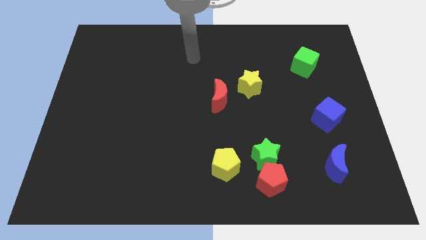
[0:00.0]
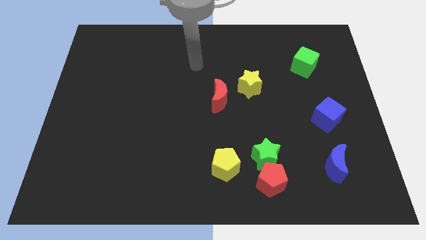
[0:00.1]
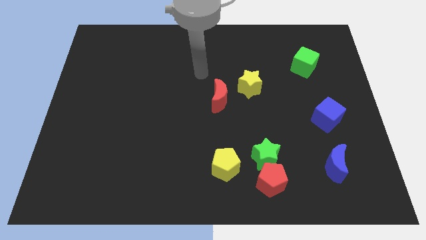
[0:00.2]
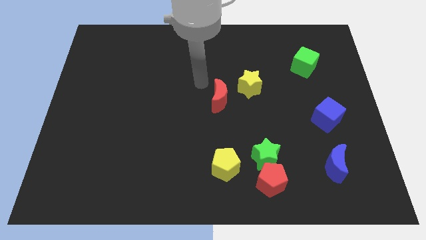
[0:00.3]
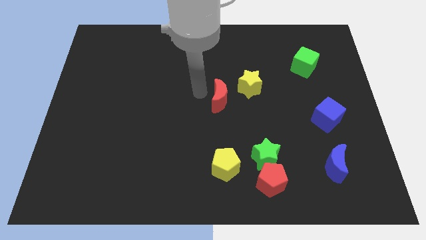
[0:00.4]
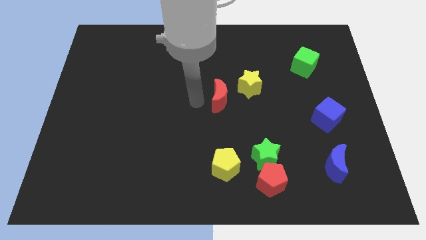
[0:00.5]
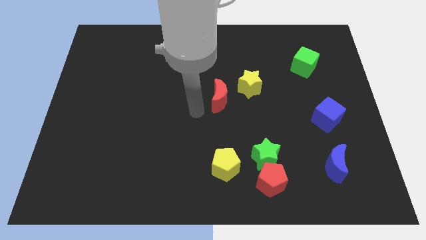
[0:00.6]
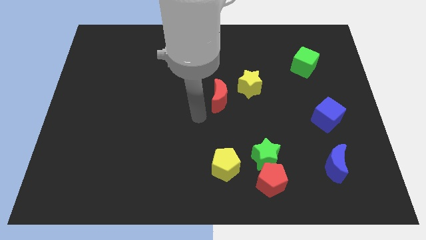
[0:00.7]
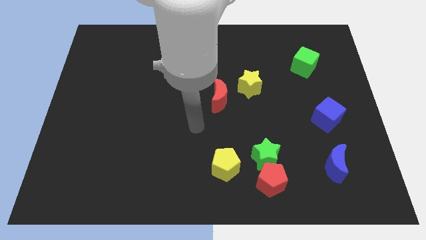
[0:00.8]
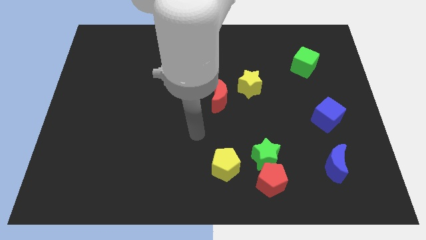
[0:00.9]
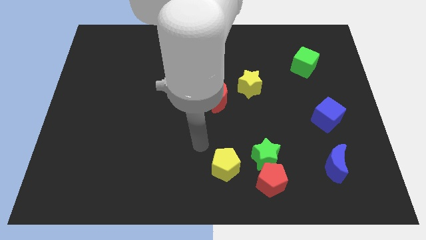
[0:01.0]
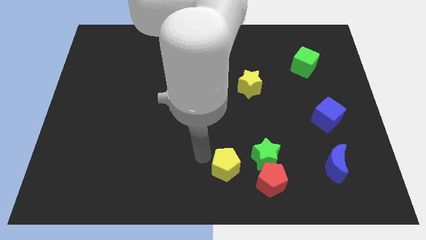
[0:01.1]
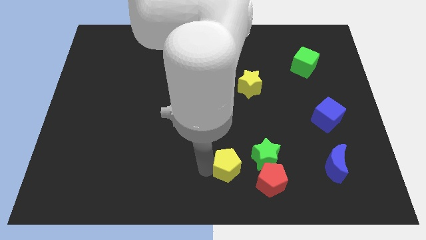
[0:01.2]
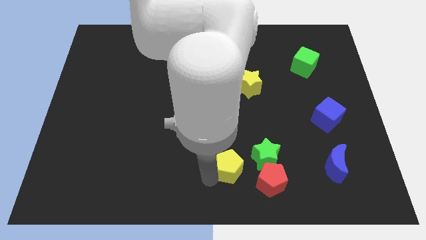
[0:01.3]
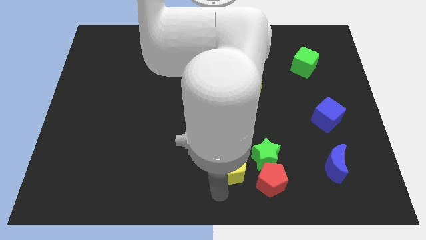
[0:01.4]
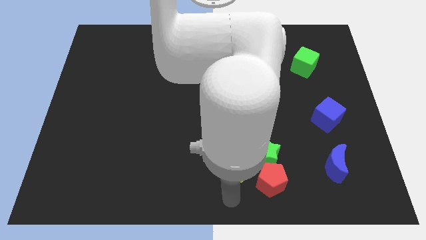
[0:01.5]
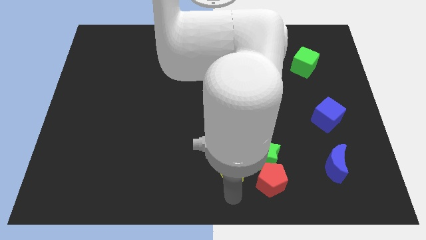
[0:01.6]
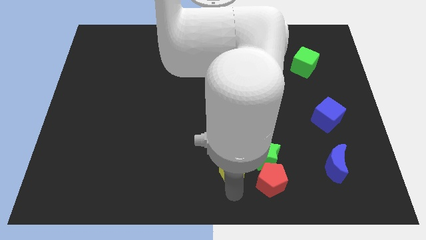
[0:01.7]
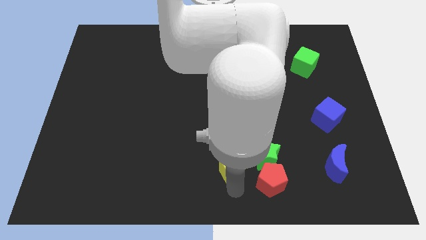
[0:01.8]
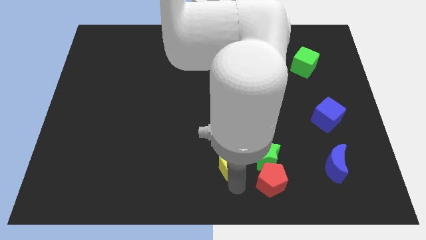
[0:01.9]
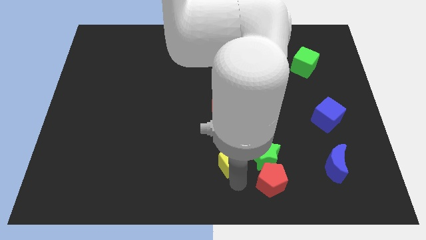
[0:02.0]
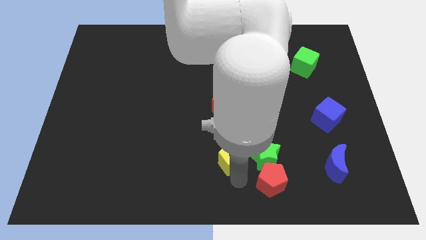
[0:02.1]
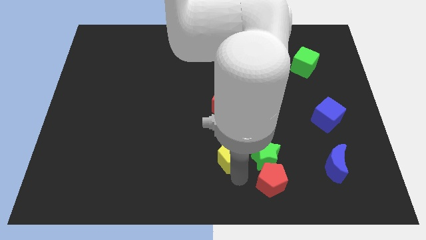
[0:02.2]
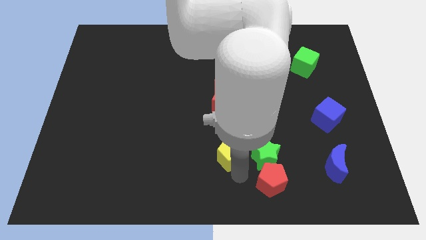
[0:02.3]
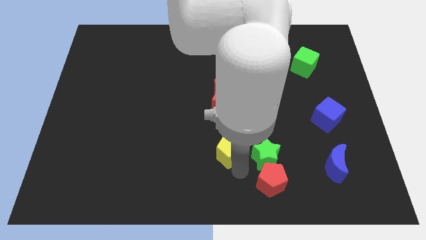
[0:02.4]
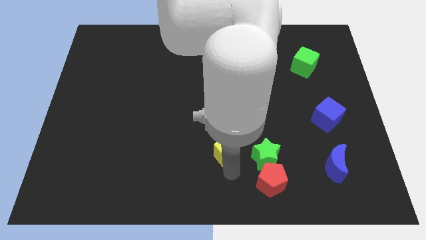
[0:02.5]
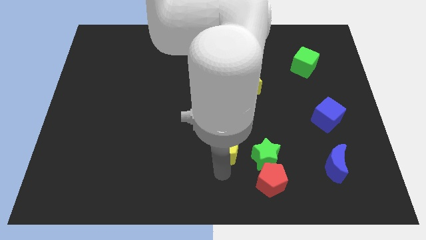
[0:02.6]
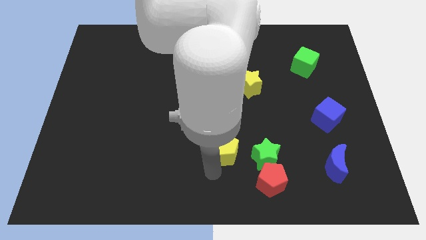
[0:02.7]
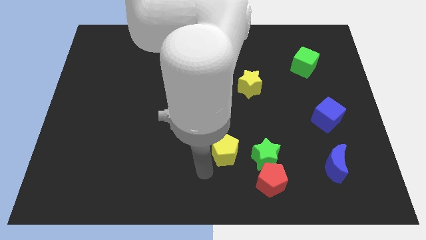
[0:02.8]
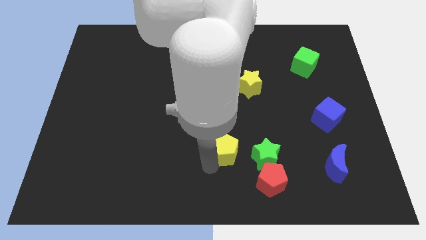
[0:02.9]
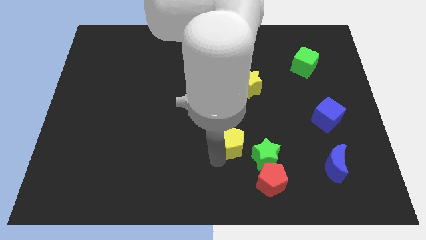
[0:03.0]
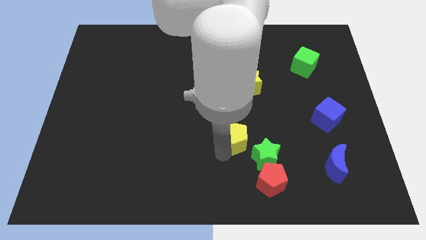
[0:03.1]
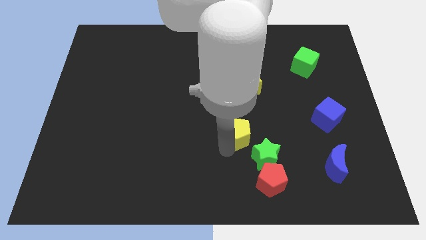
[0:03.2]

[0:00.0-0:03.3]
push the yellow pentagon diagonally up and to the right a little bit

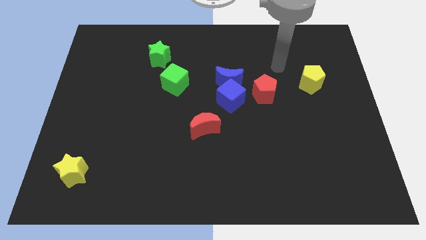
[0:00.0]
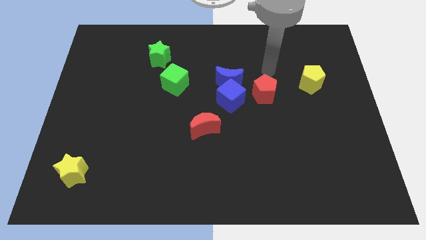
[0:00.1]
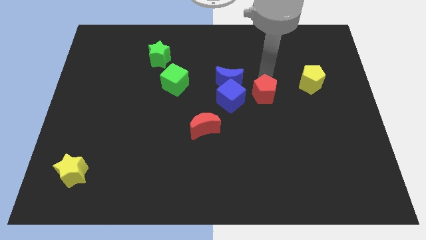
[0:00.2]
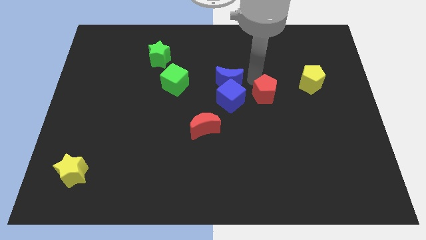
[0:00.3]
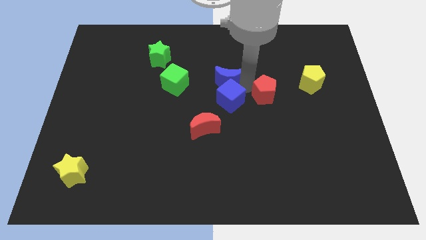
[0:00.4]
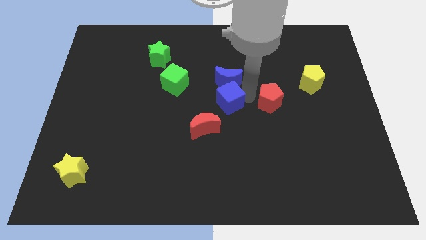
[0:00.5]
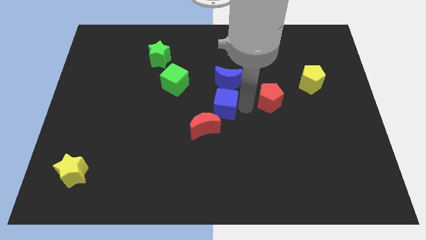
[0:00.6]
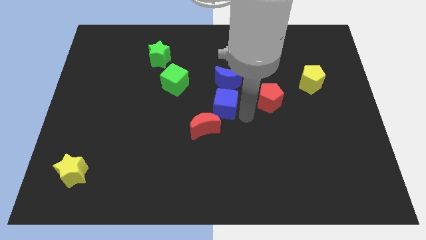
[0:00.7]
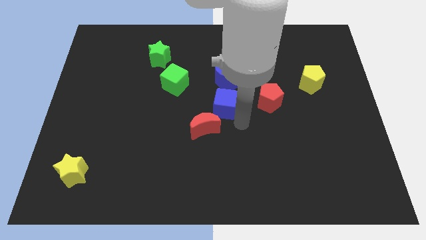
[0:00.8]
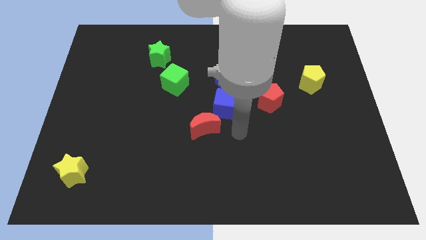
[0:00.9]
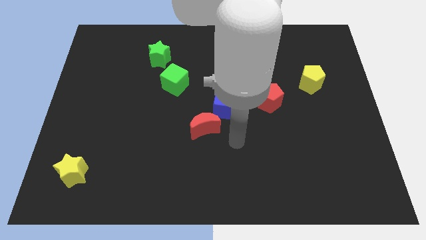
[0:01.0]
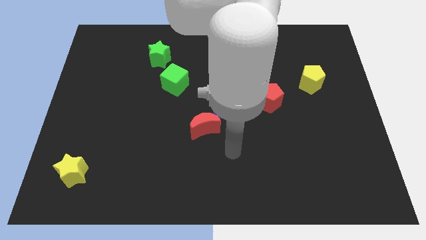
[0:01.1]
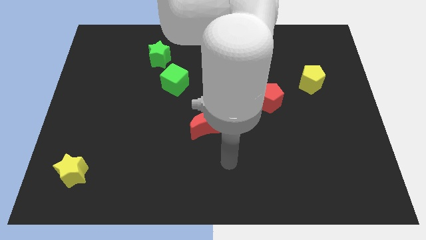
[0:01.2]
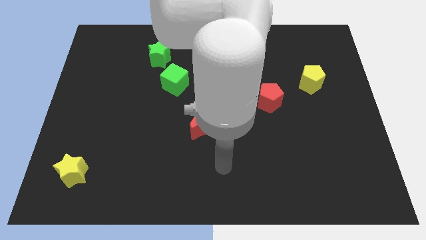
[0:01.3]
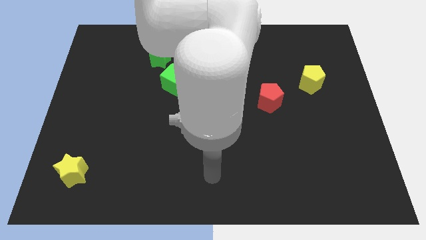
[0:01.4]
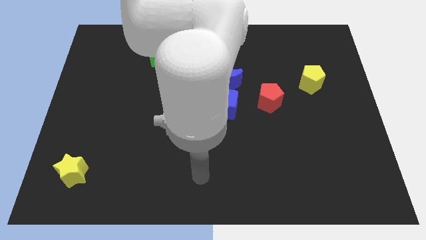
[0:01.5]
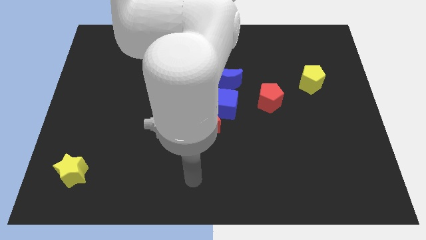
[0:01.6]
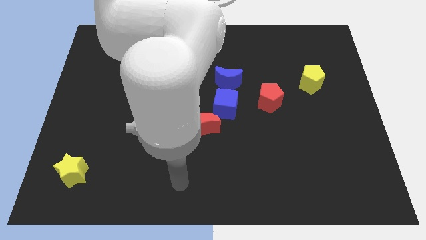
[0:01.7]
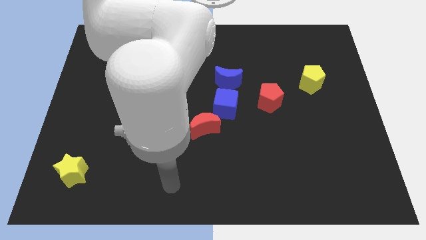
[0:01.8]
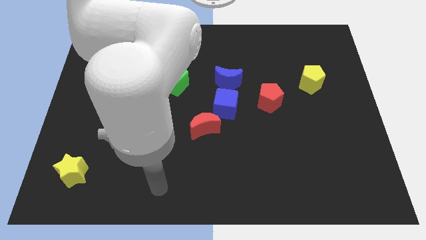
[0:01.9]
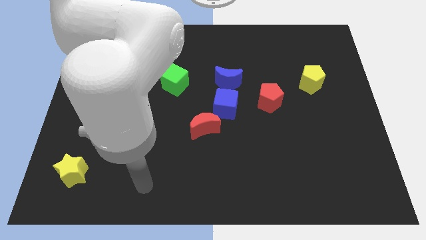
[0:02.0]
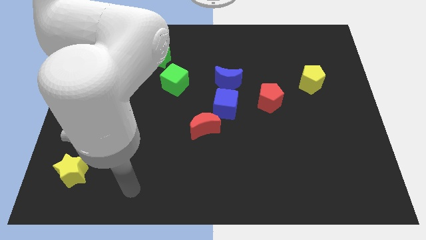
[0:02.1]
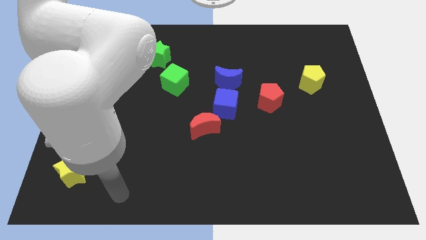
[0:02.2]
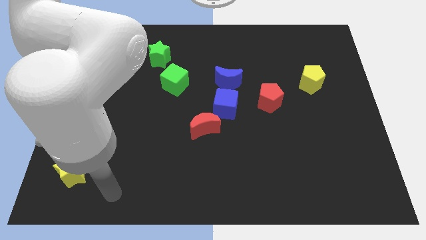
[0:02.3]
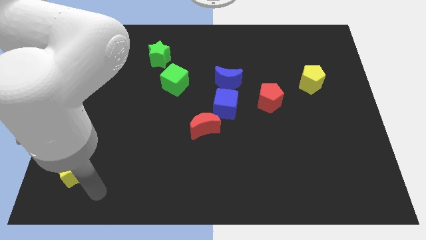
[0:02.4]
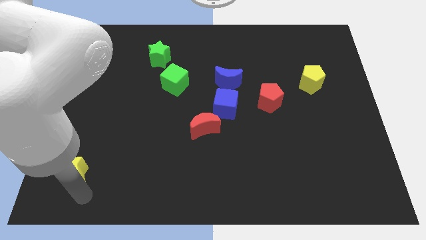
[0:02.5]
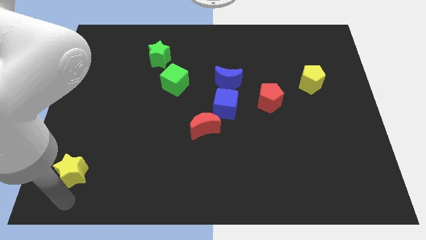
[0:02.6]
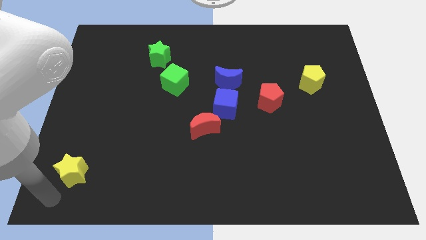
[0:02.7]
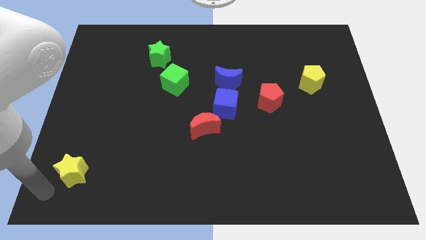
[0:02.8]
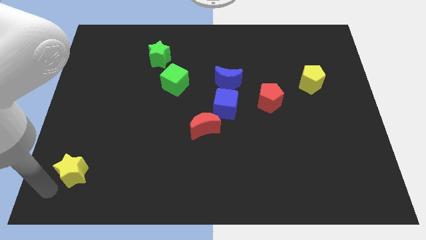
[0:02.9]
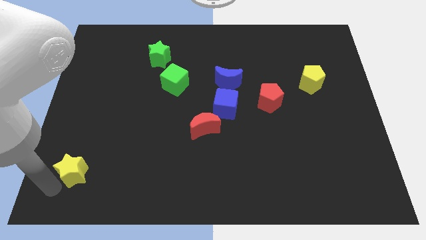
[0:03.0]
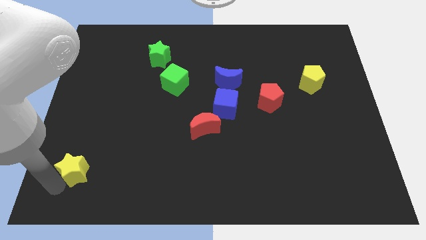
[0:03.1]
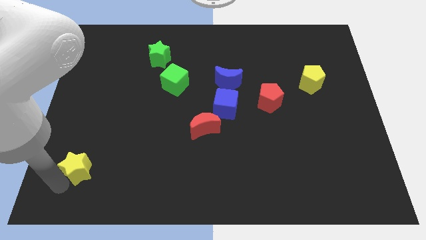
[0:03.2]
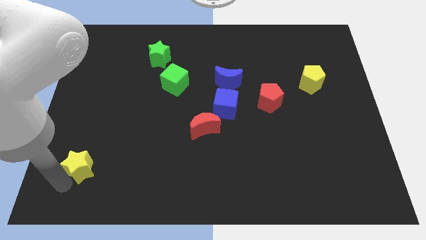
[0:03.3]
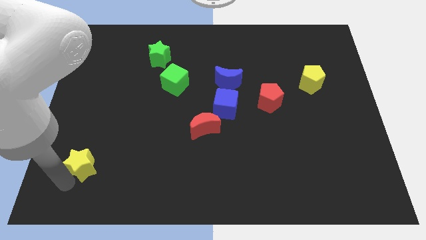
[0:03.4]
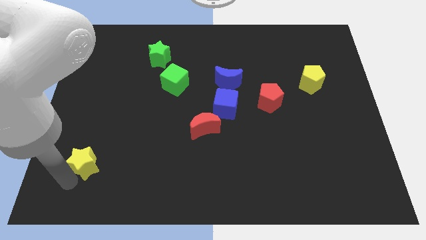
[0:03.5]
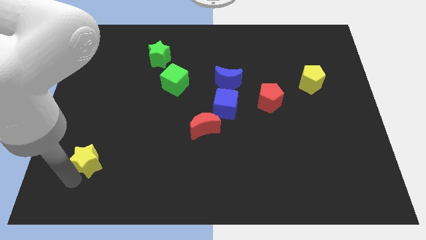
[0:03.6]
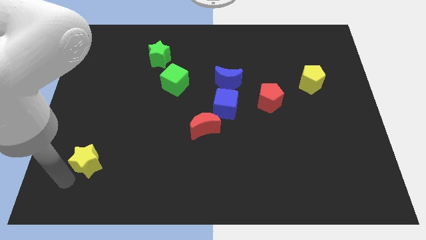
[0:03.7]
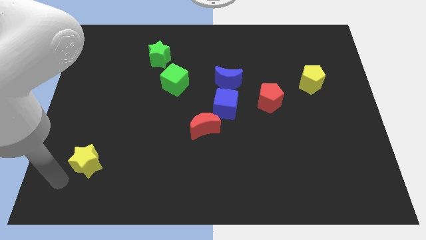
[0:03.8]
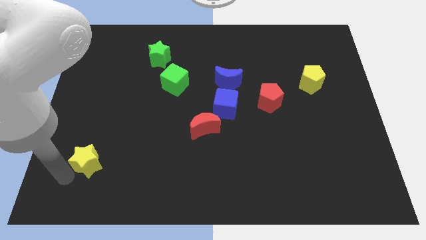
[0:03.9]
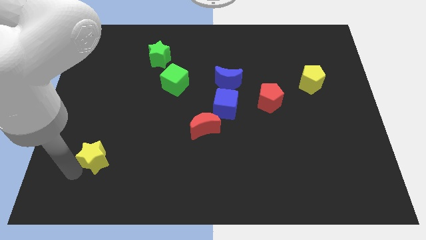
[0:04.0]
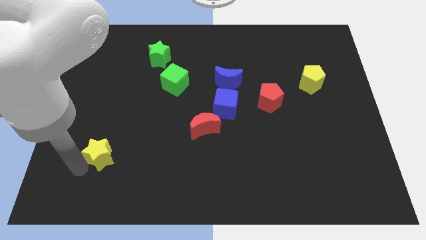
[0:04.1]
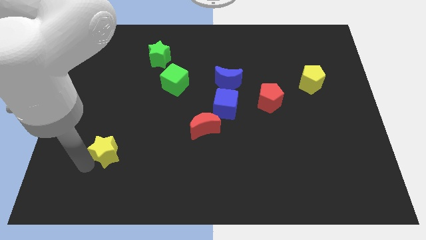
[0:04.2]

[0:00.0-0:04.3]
slide the yellow star up and to the right diagonally a bit
